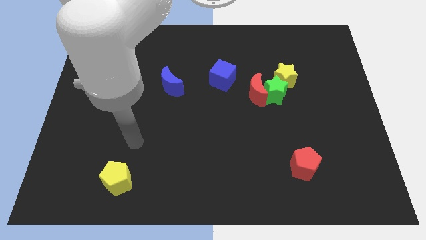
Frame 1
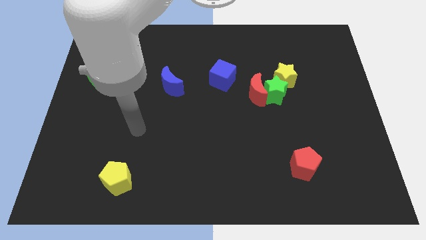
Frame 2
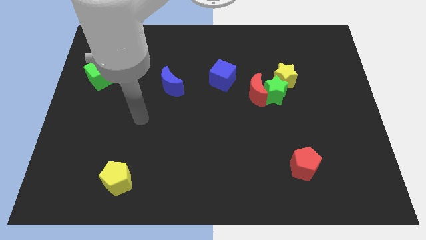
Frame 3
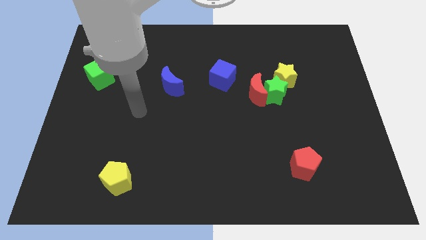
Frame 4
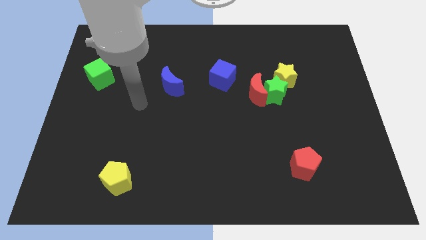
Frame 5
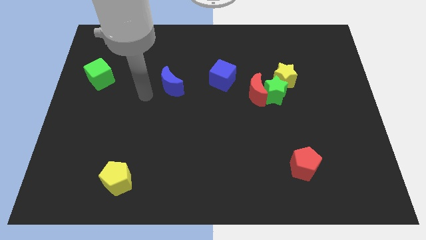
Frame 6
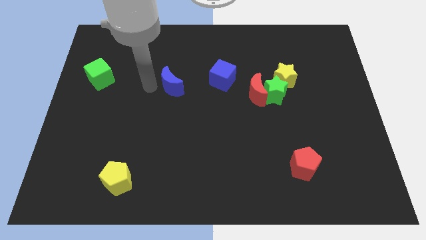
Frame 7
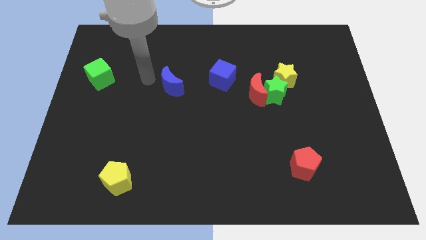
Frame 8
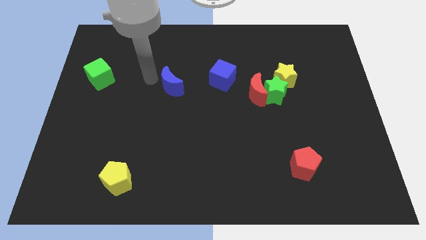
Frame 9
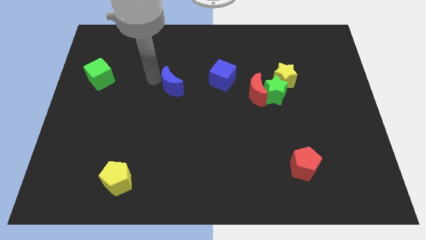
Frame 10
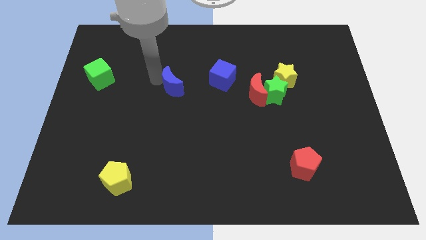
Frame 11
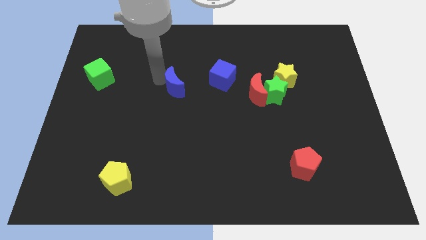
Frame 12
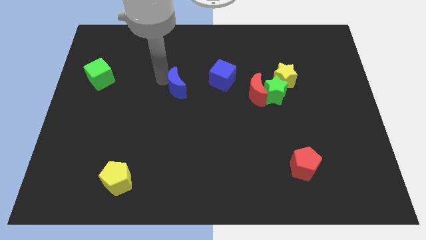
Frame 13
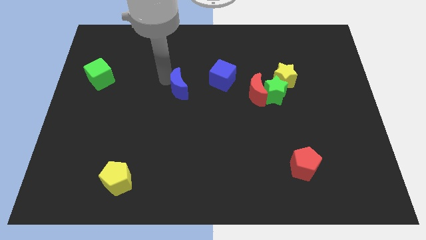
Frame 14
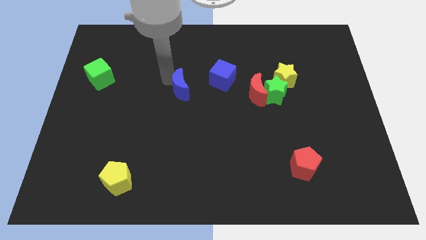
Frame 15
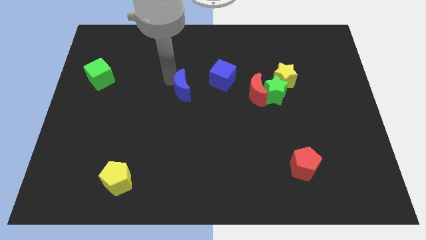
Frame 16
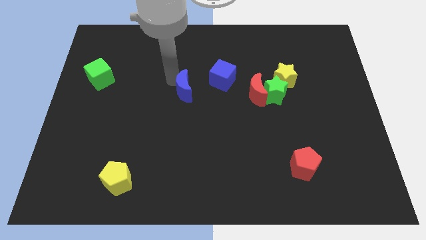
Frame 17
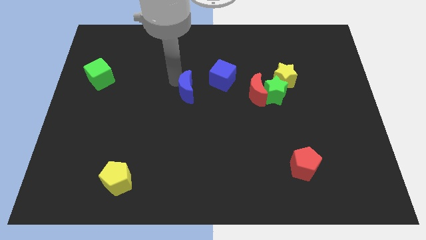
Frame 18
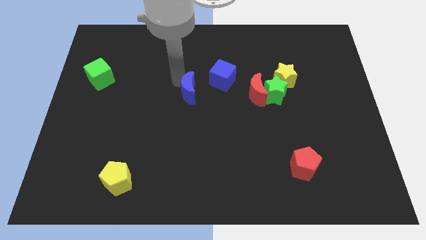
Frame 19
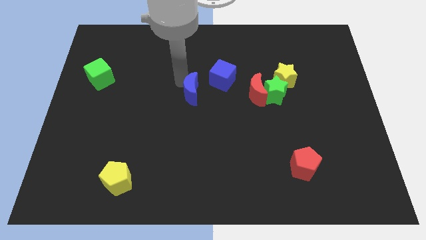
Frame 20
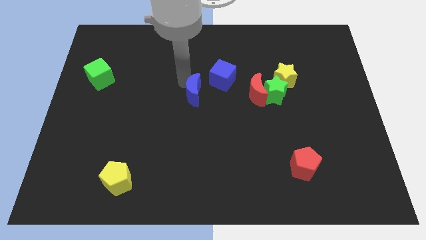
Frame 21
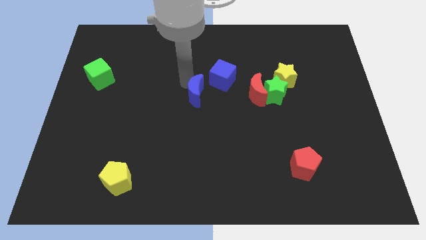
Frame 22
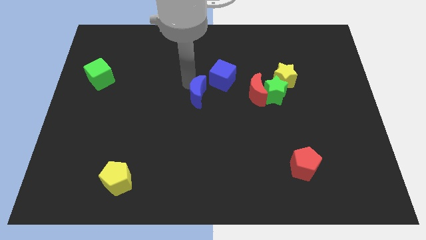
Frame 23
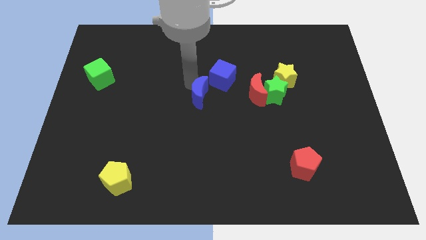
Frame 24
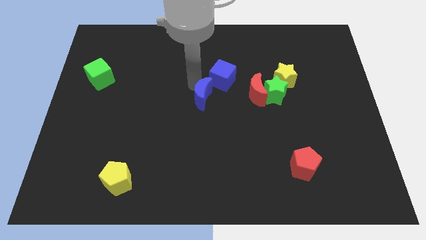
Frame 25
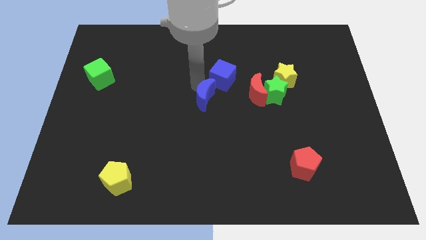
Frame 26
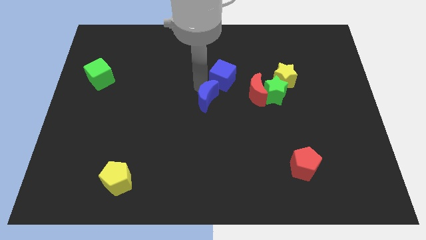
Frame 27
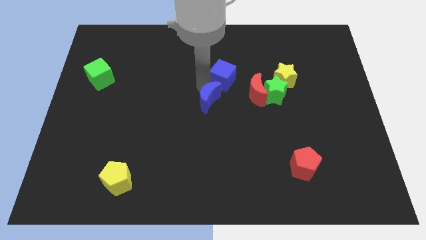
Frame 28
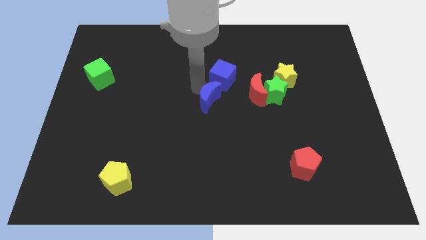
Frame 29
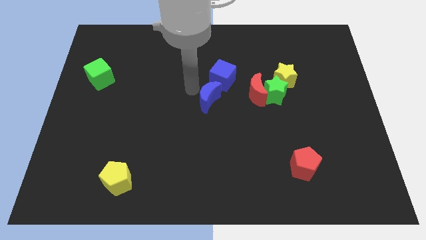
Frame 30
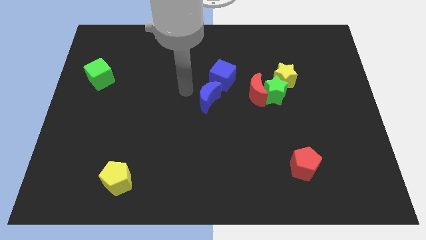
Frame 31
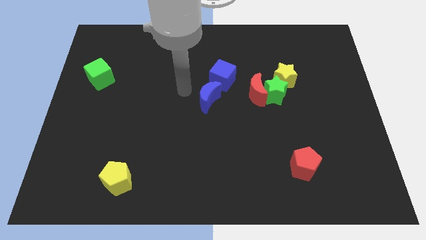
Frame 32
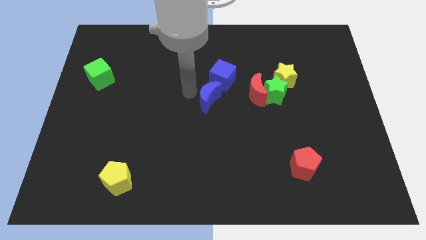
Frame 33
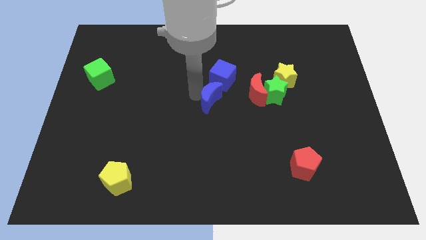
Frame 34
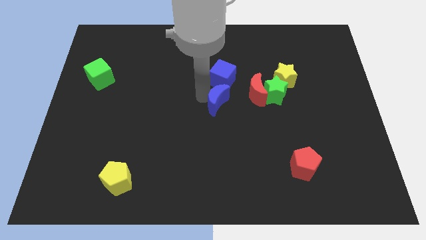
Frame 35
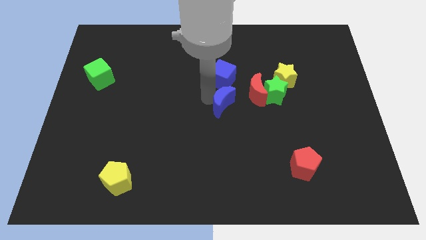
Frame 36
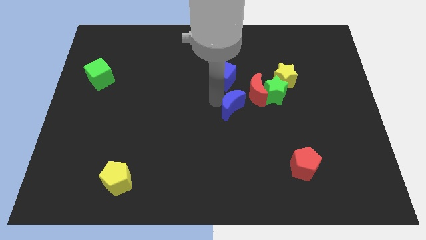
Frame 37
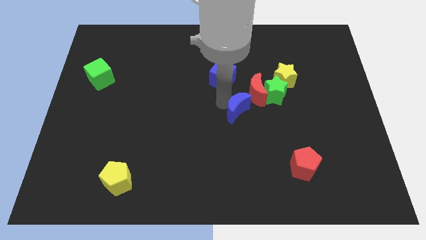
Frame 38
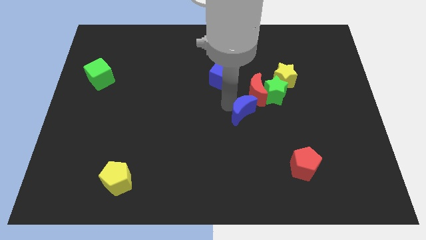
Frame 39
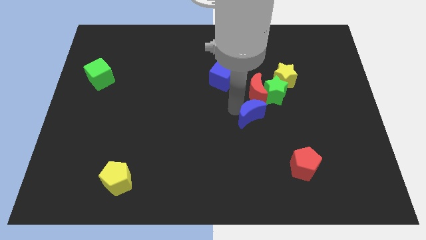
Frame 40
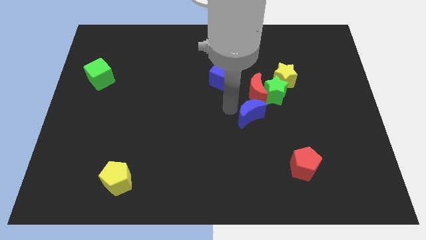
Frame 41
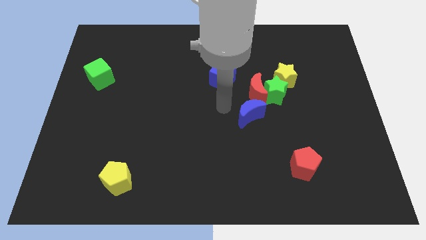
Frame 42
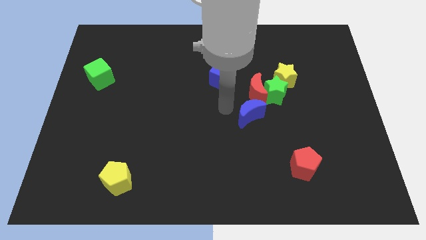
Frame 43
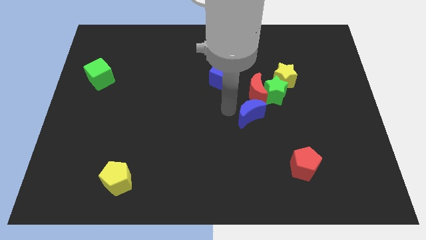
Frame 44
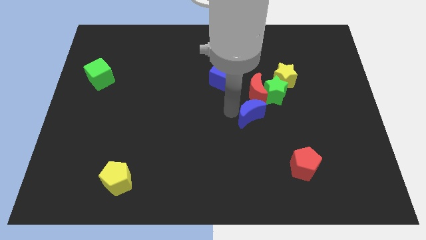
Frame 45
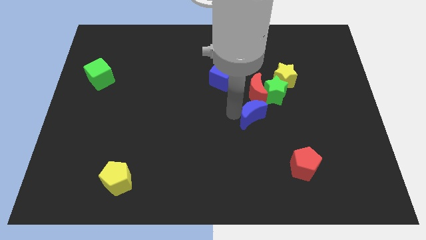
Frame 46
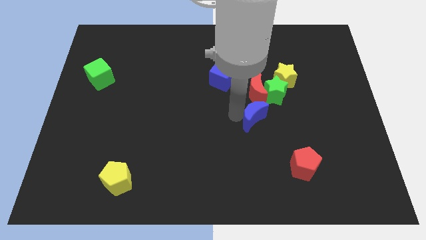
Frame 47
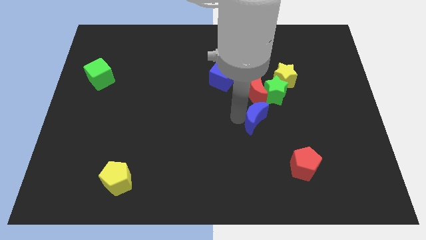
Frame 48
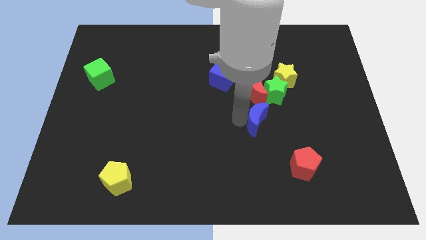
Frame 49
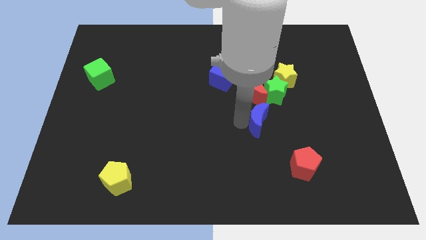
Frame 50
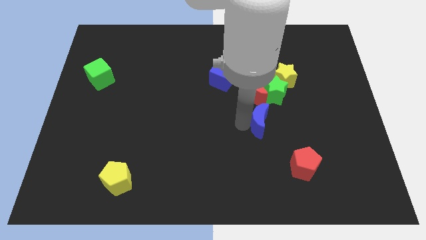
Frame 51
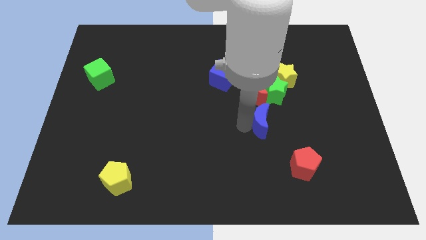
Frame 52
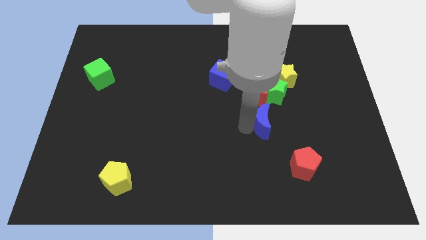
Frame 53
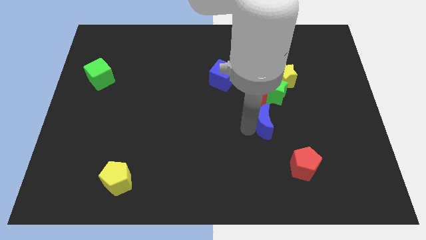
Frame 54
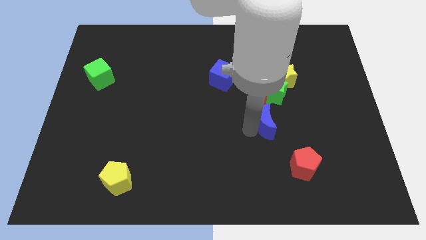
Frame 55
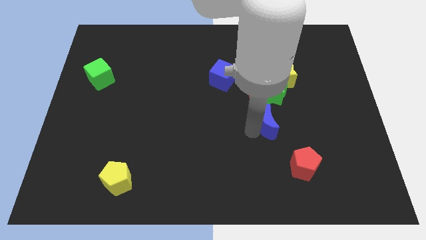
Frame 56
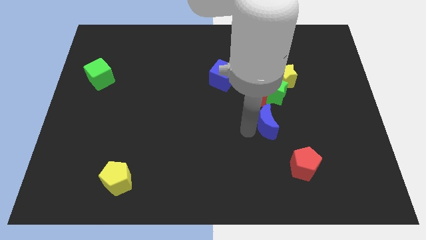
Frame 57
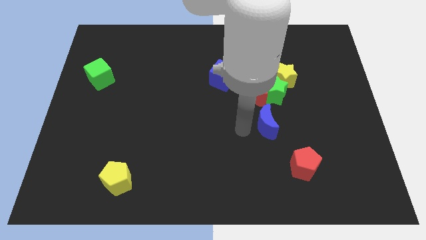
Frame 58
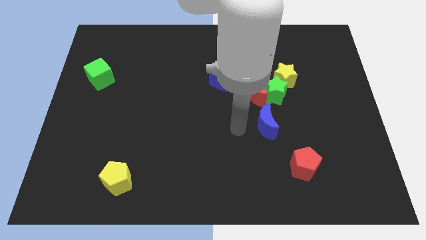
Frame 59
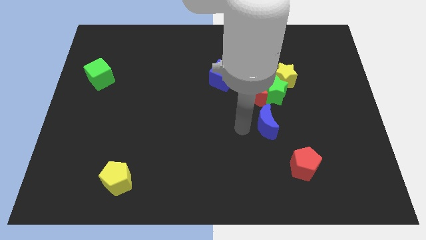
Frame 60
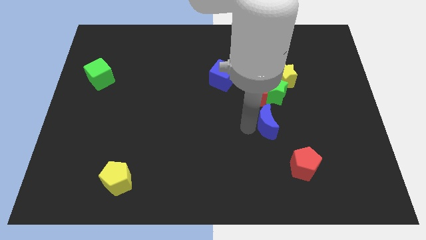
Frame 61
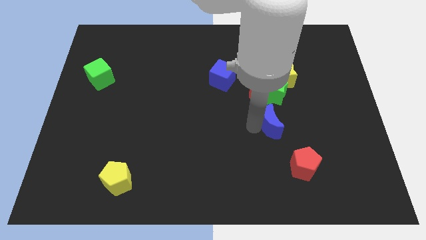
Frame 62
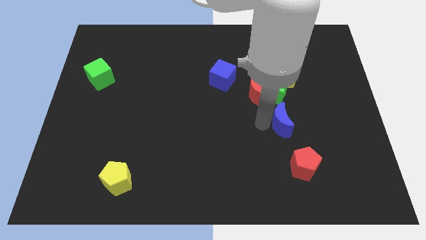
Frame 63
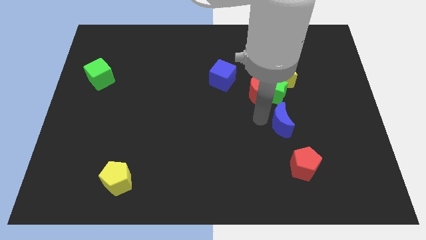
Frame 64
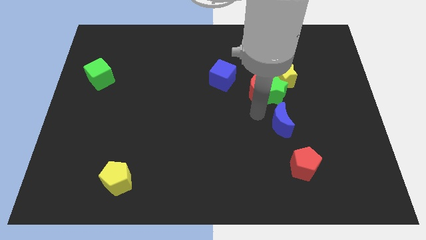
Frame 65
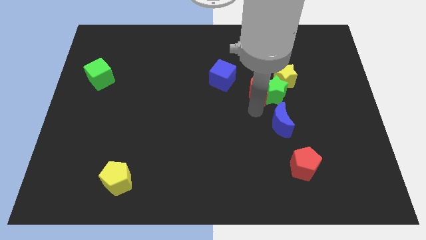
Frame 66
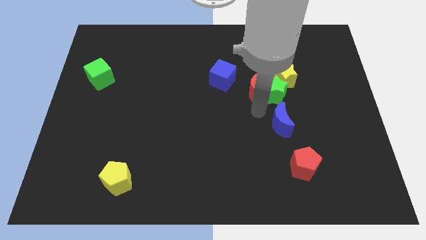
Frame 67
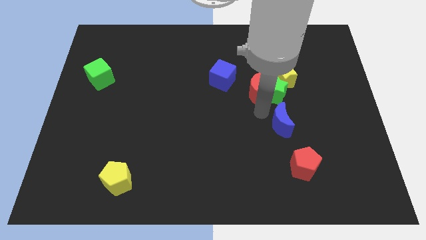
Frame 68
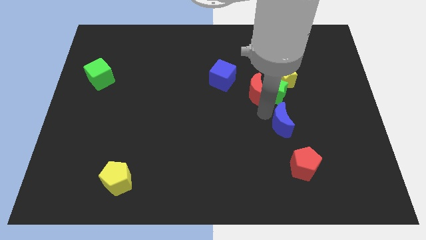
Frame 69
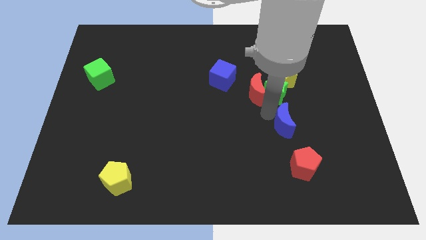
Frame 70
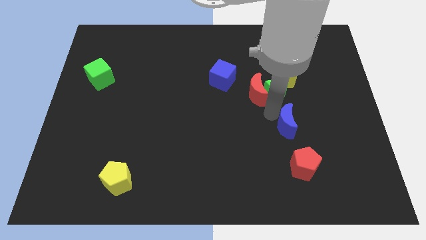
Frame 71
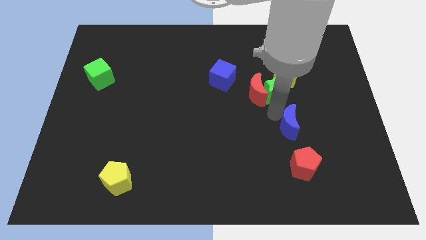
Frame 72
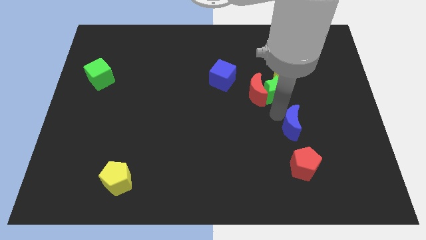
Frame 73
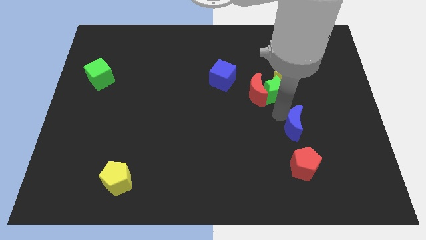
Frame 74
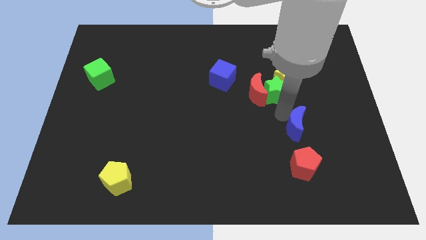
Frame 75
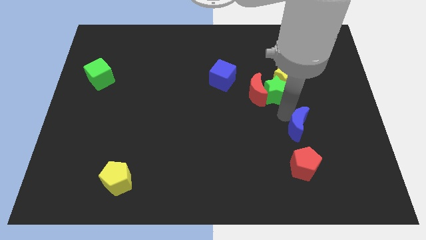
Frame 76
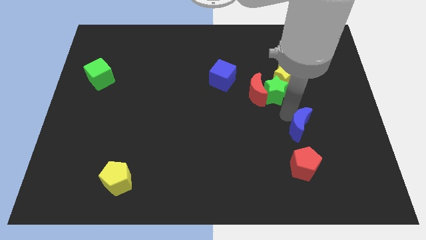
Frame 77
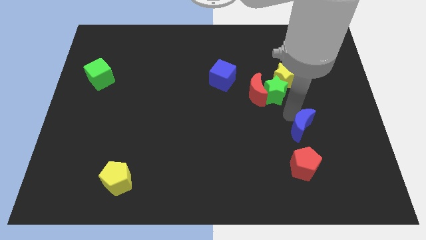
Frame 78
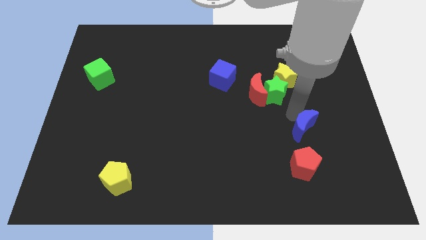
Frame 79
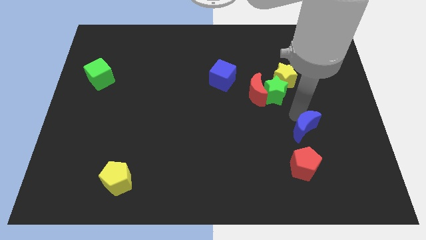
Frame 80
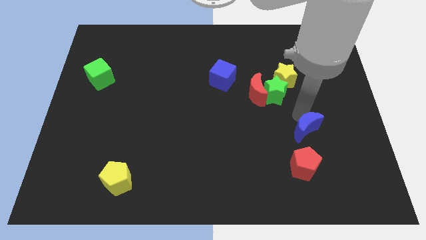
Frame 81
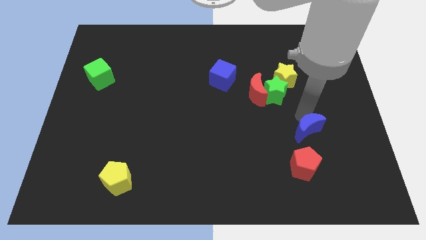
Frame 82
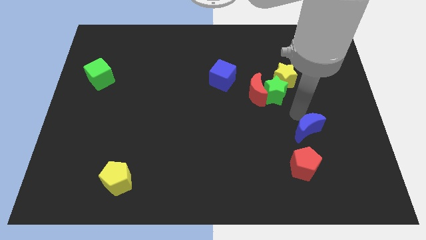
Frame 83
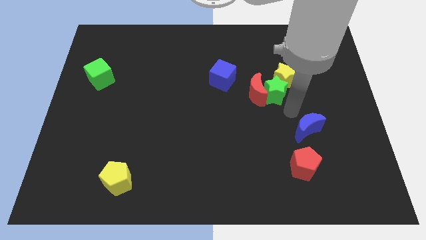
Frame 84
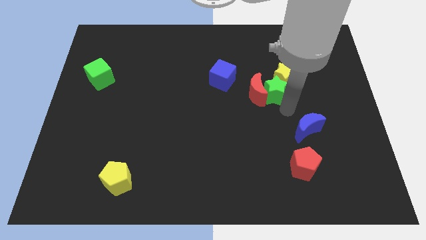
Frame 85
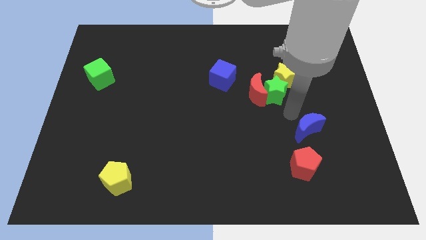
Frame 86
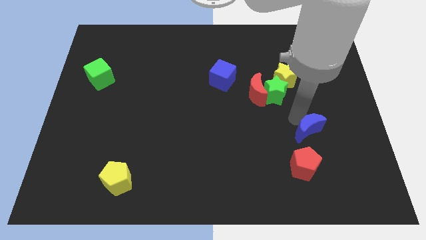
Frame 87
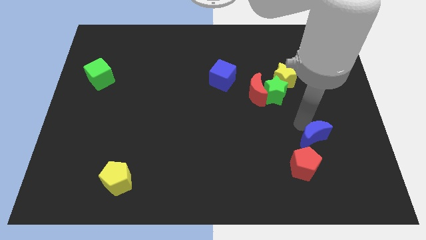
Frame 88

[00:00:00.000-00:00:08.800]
push the blue moon diagonally up and to the right of the red pentagon
